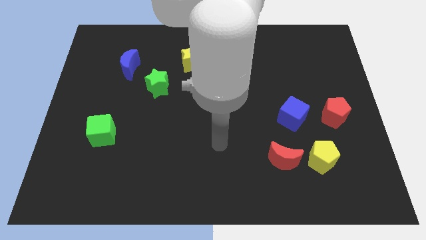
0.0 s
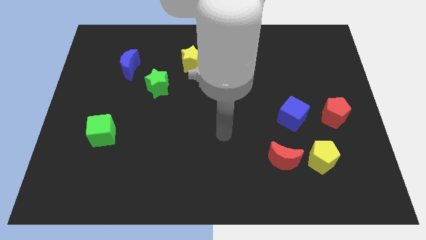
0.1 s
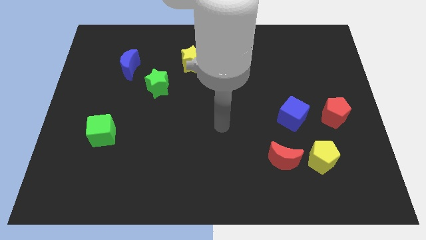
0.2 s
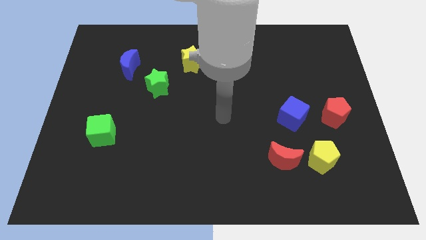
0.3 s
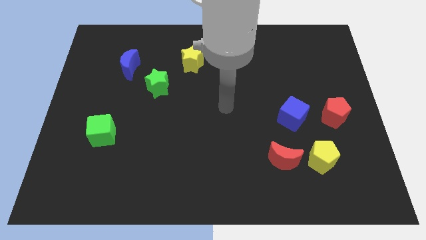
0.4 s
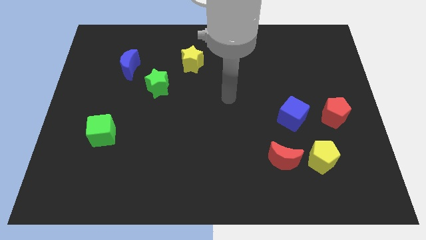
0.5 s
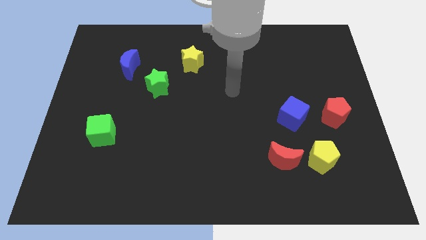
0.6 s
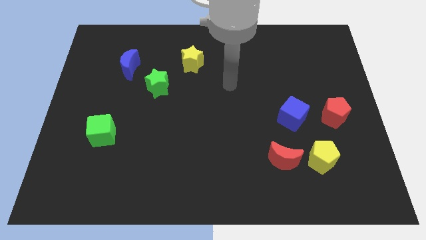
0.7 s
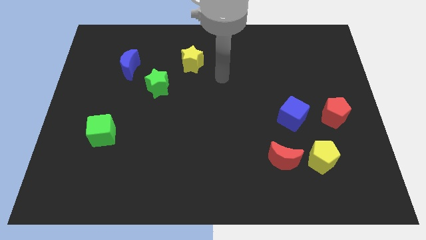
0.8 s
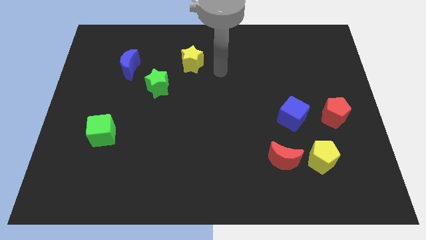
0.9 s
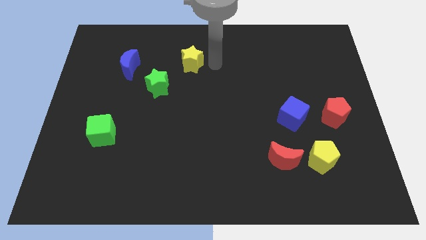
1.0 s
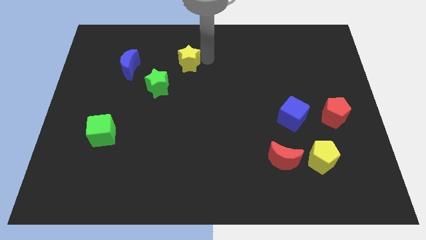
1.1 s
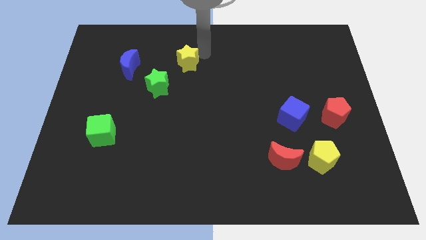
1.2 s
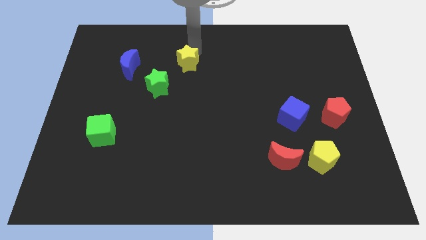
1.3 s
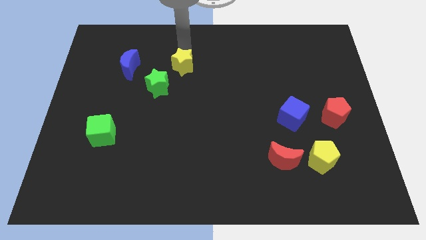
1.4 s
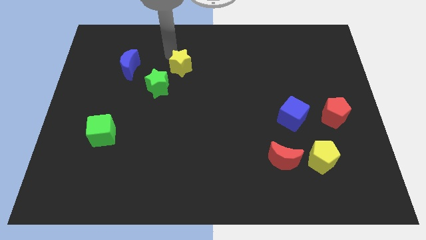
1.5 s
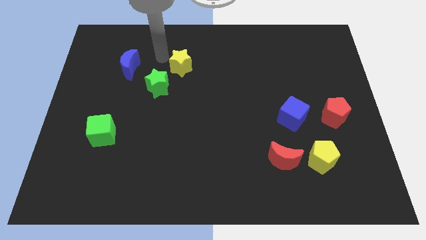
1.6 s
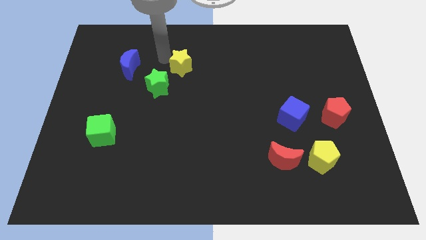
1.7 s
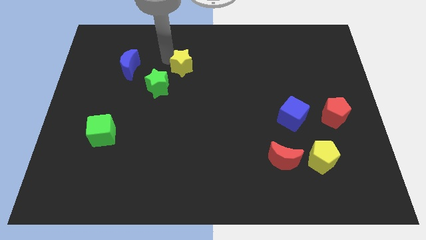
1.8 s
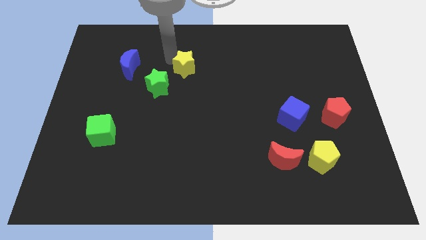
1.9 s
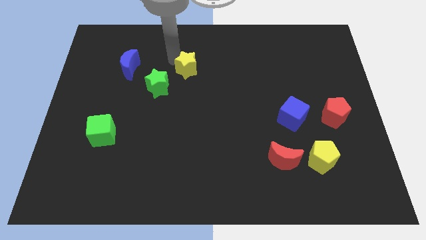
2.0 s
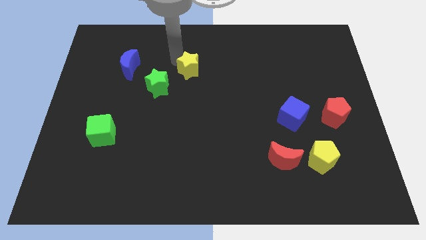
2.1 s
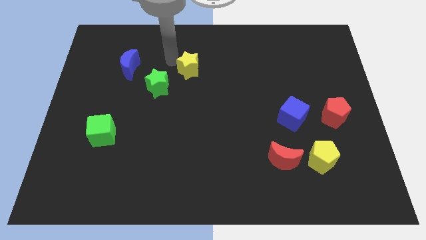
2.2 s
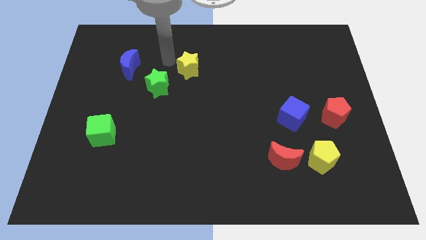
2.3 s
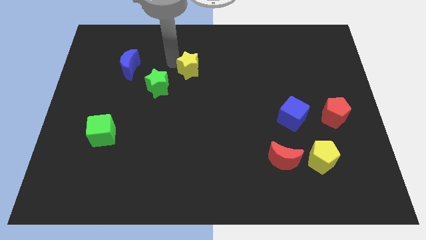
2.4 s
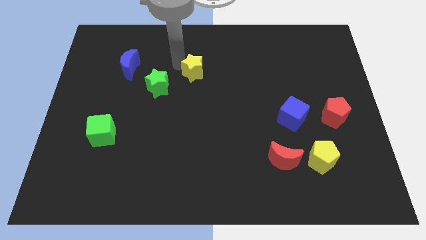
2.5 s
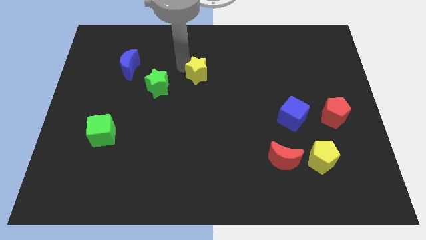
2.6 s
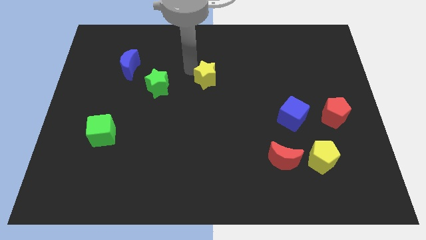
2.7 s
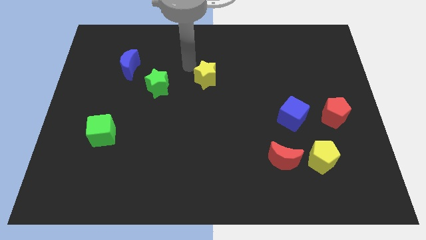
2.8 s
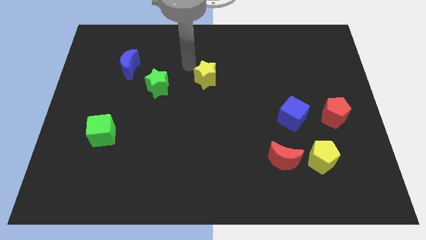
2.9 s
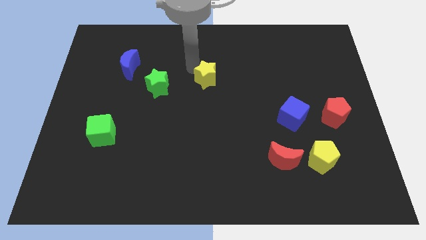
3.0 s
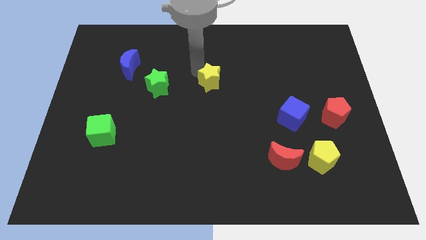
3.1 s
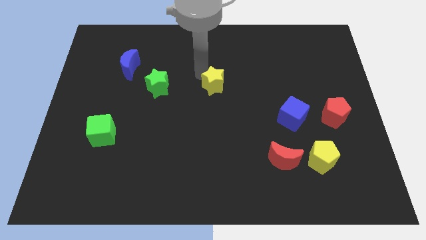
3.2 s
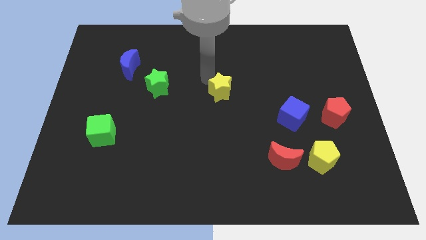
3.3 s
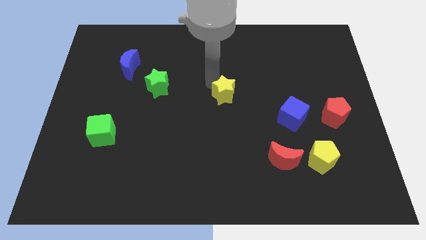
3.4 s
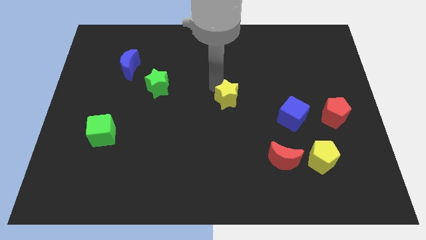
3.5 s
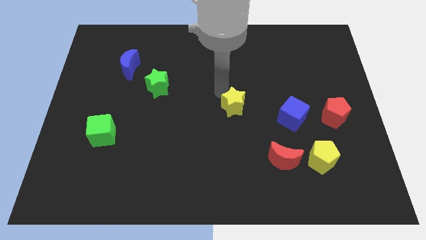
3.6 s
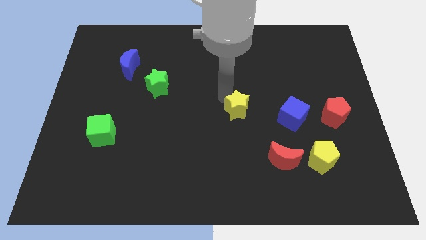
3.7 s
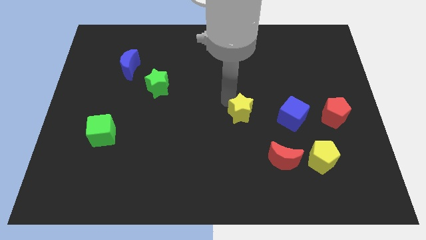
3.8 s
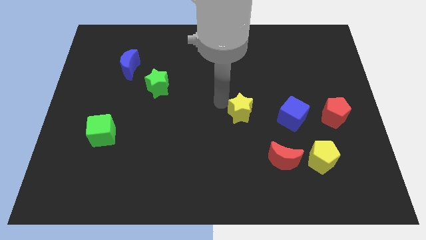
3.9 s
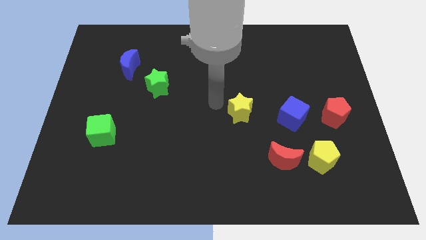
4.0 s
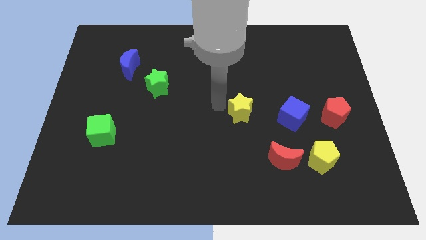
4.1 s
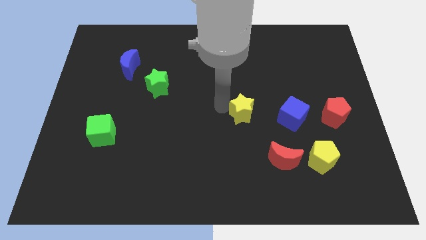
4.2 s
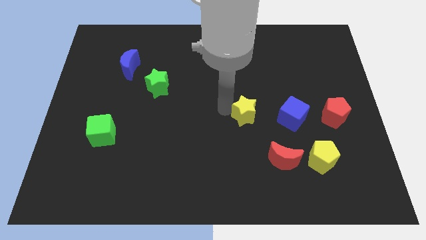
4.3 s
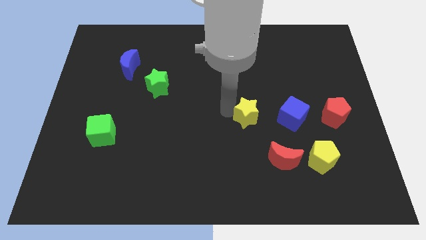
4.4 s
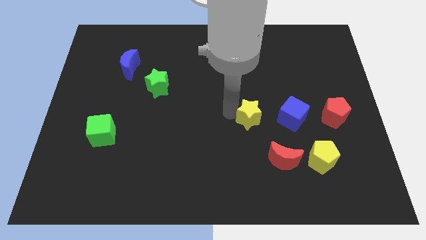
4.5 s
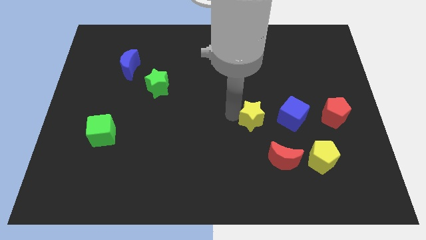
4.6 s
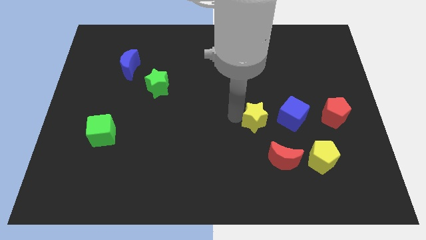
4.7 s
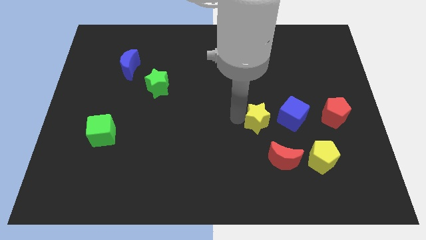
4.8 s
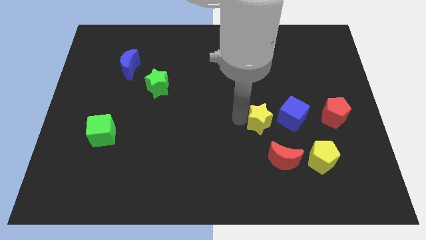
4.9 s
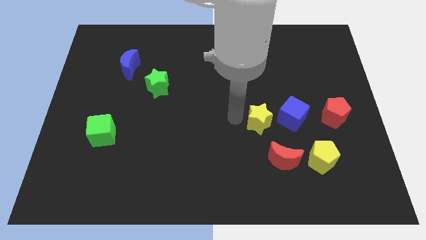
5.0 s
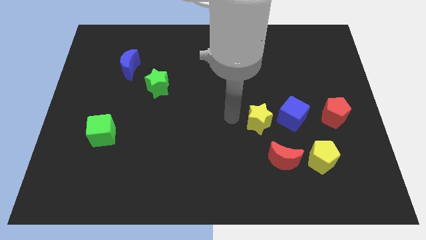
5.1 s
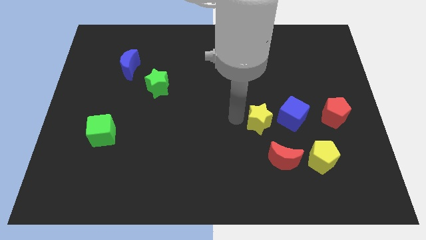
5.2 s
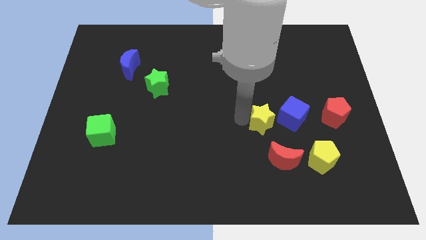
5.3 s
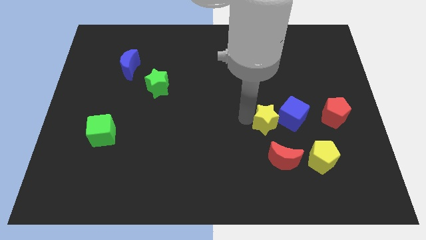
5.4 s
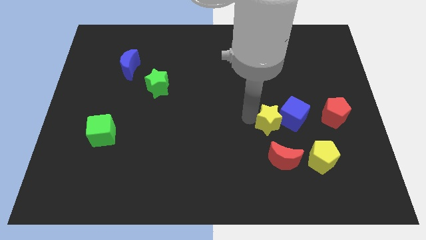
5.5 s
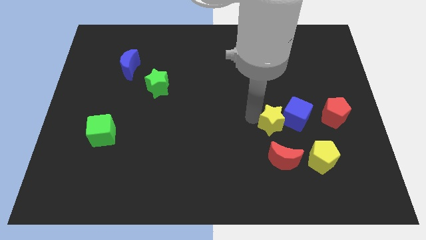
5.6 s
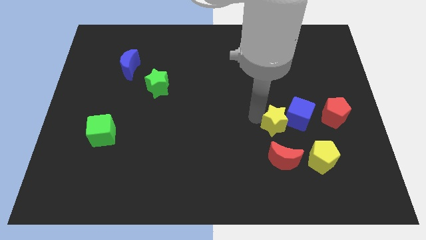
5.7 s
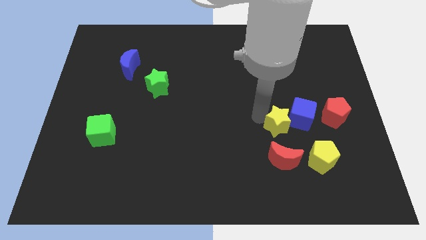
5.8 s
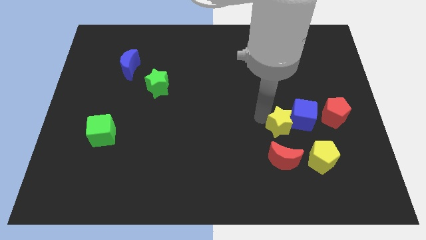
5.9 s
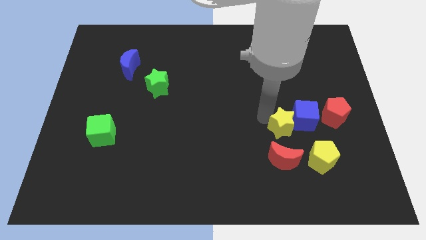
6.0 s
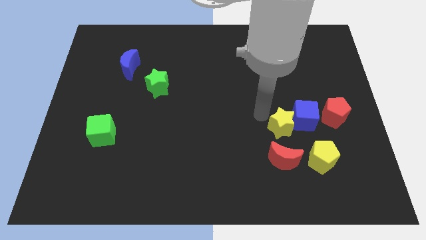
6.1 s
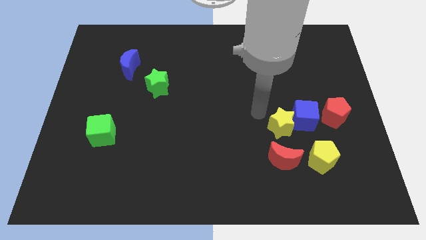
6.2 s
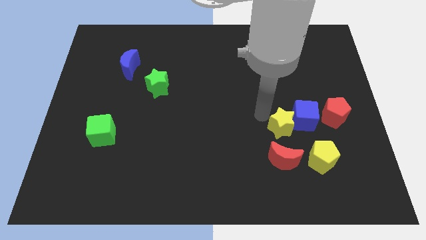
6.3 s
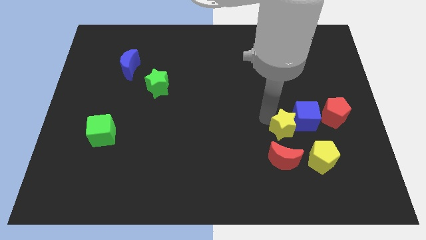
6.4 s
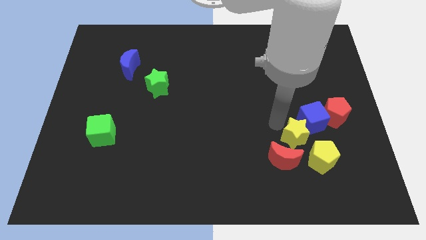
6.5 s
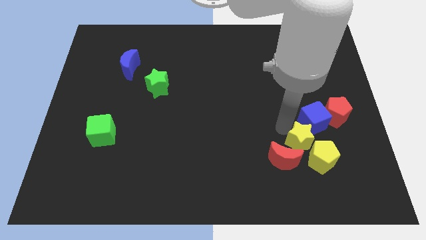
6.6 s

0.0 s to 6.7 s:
push the yellow star to the yellow pentagon

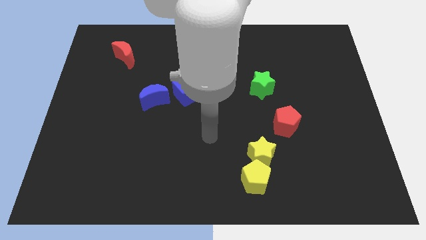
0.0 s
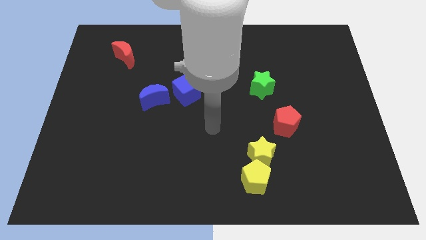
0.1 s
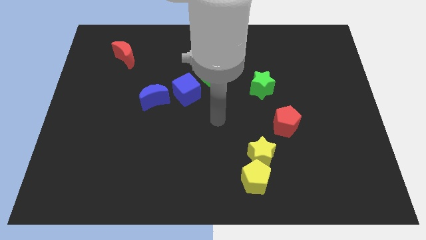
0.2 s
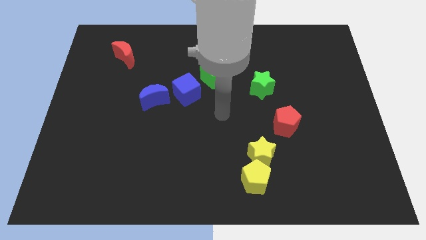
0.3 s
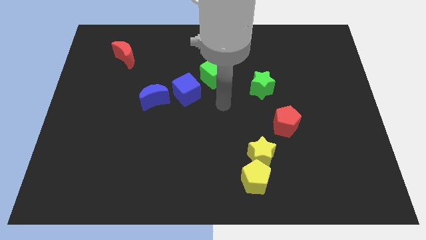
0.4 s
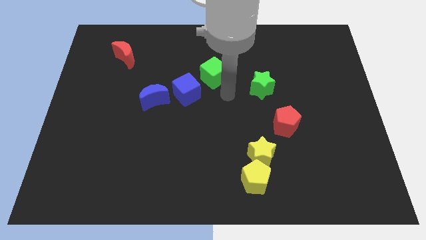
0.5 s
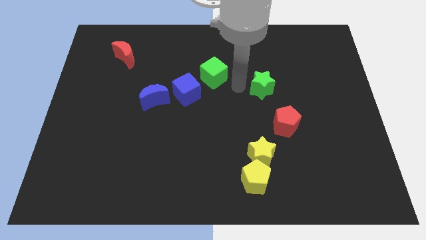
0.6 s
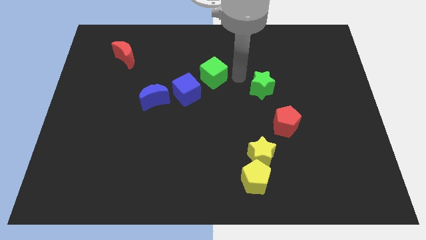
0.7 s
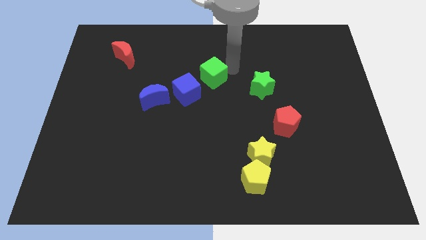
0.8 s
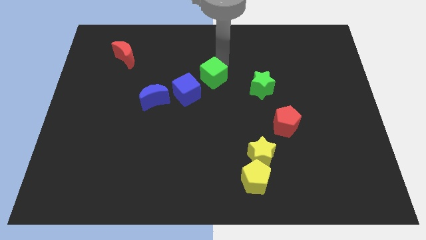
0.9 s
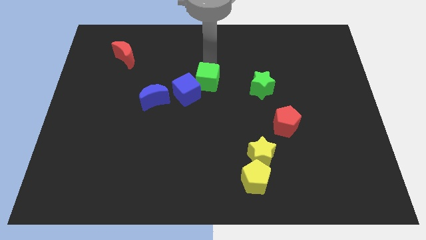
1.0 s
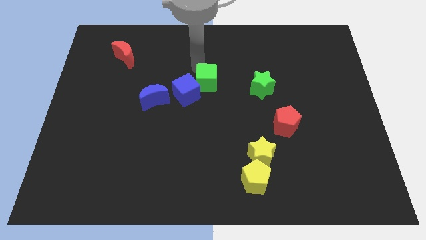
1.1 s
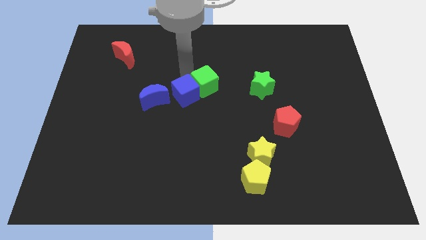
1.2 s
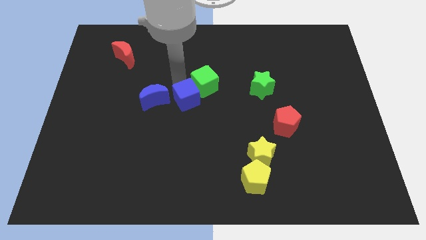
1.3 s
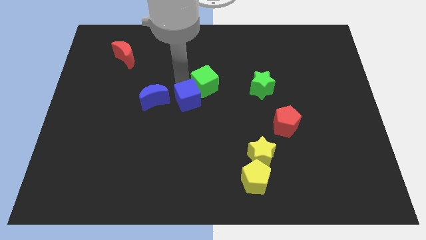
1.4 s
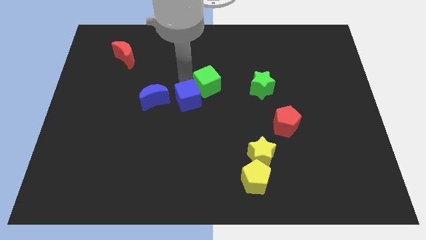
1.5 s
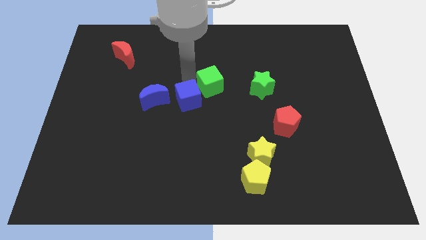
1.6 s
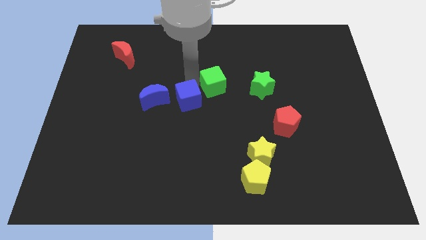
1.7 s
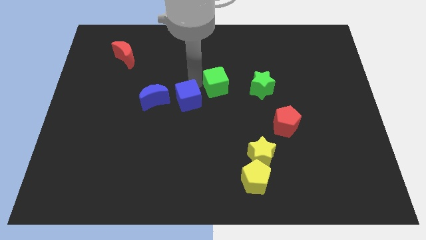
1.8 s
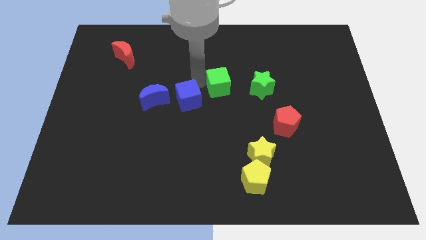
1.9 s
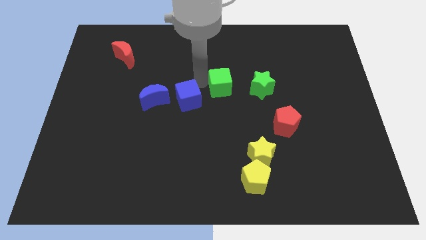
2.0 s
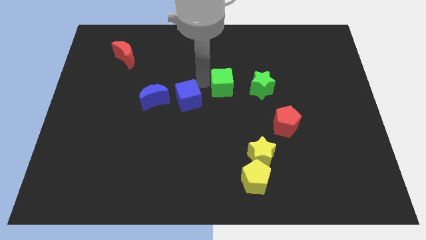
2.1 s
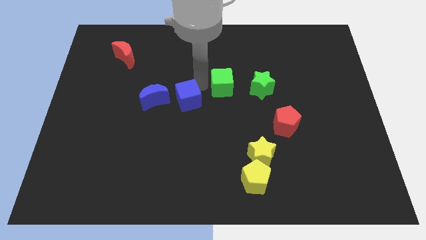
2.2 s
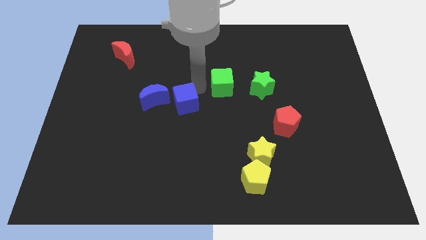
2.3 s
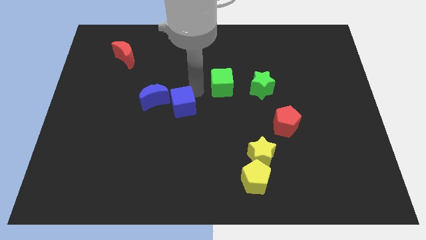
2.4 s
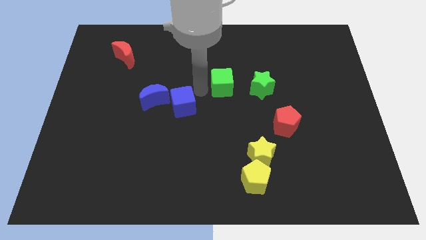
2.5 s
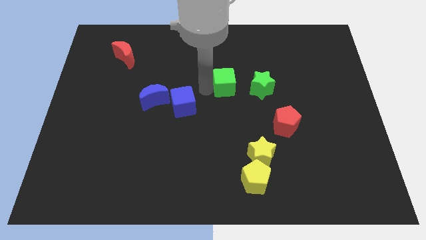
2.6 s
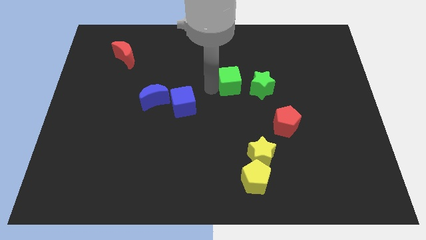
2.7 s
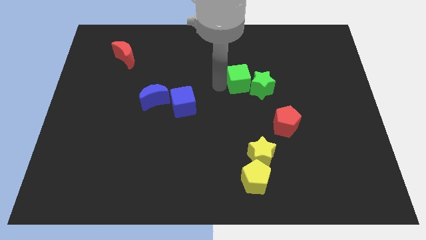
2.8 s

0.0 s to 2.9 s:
put the green cube towards the green star
